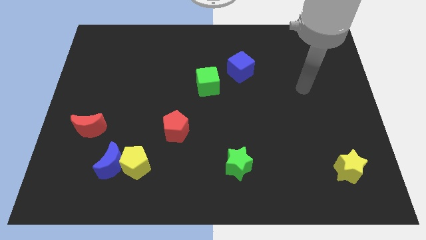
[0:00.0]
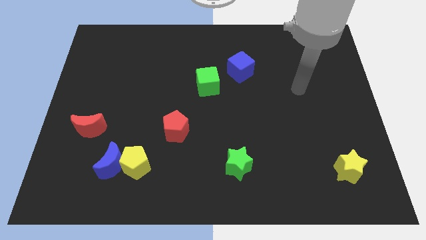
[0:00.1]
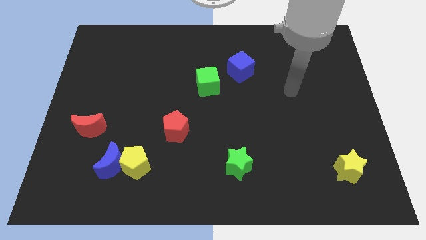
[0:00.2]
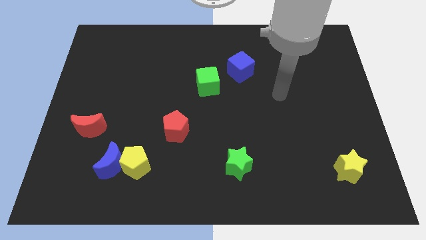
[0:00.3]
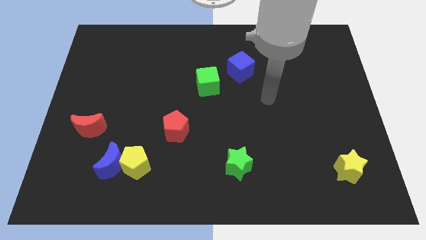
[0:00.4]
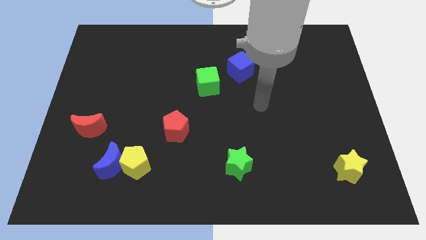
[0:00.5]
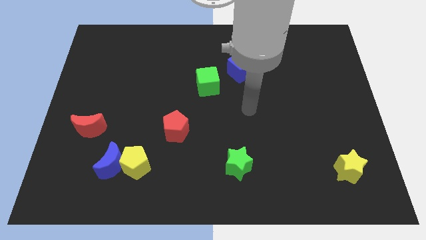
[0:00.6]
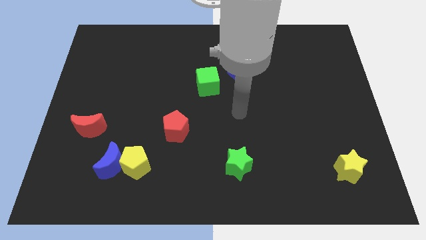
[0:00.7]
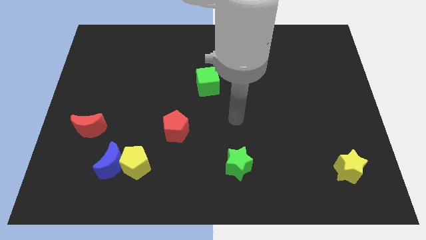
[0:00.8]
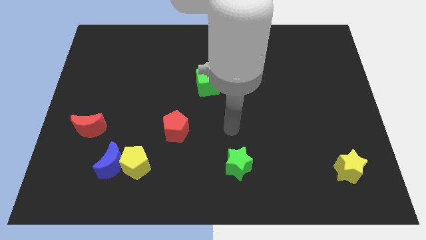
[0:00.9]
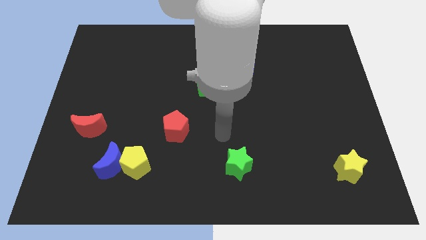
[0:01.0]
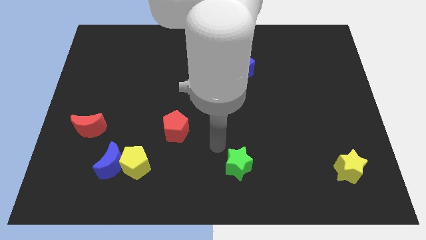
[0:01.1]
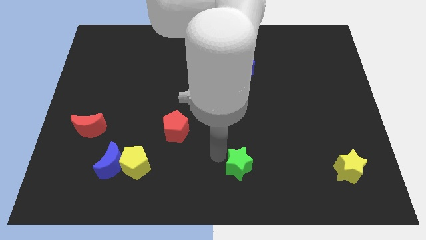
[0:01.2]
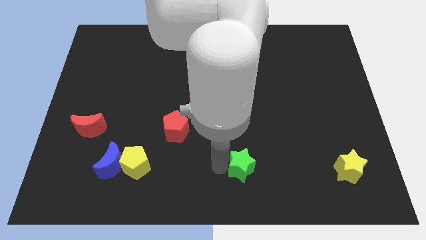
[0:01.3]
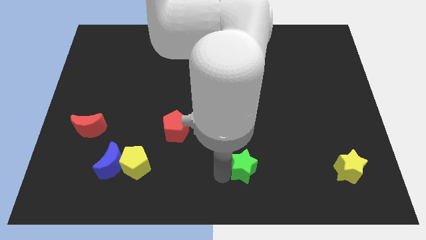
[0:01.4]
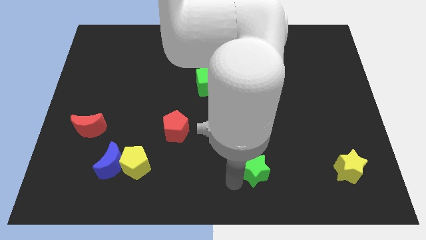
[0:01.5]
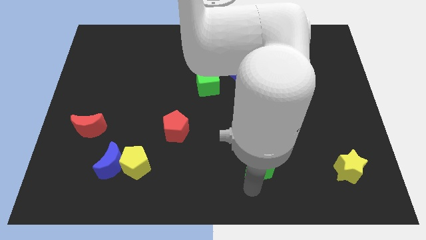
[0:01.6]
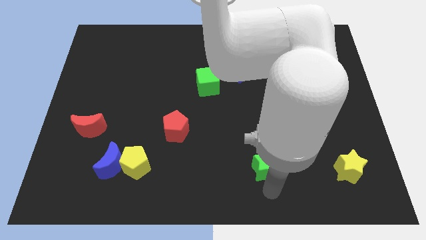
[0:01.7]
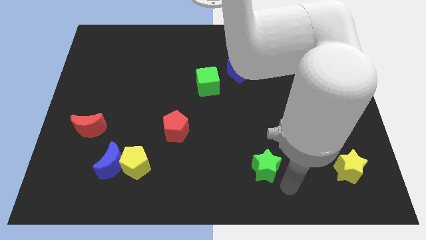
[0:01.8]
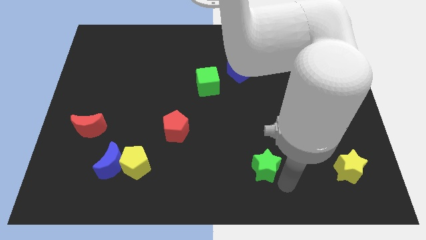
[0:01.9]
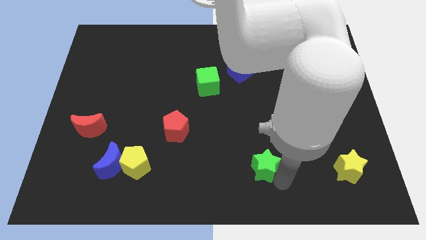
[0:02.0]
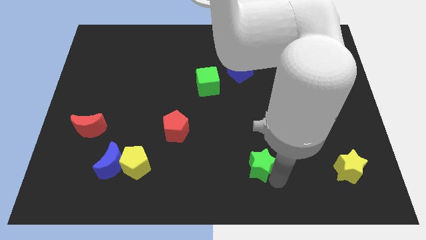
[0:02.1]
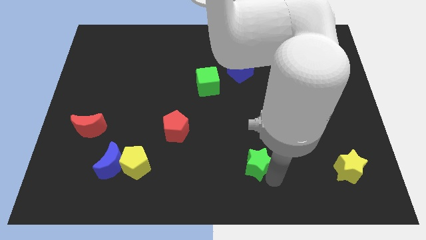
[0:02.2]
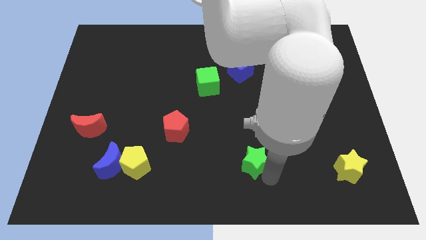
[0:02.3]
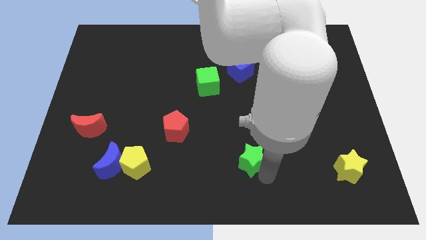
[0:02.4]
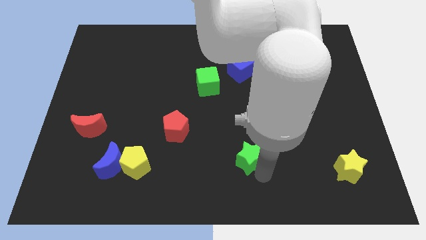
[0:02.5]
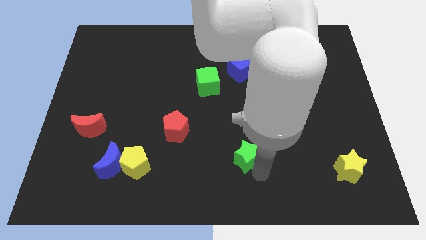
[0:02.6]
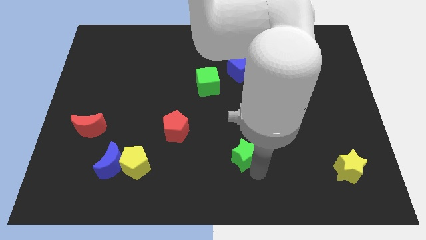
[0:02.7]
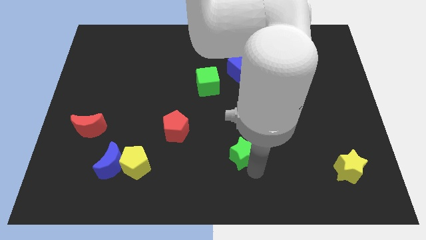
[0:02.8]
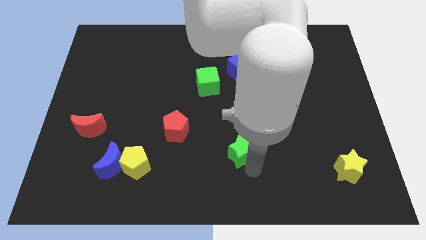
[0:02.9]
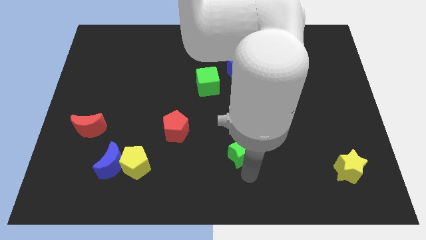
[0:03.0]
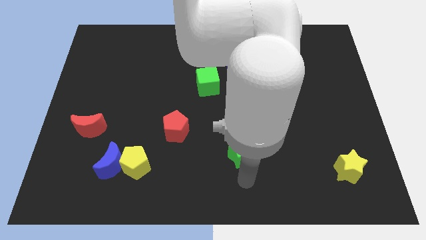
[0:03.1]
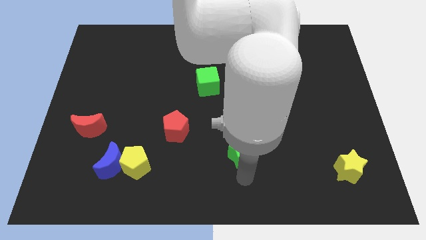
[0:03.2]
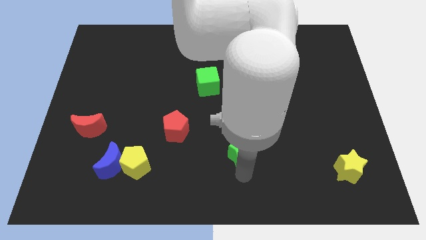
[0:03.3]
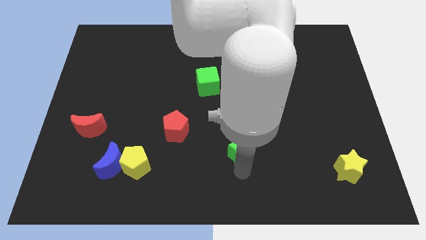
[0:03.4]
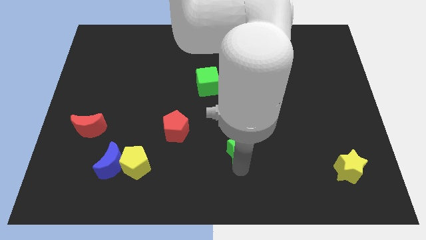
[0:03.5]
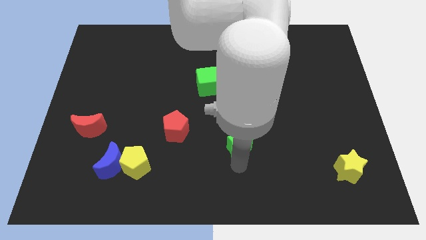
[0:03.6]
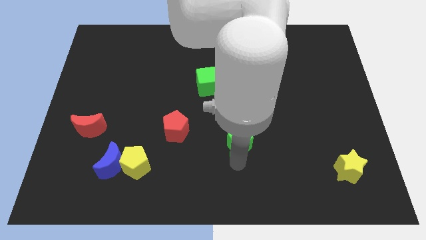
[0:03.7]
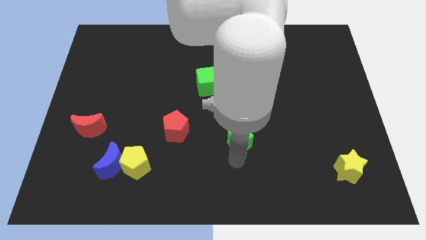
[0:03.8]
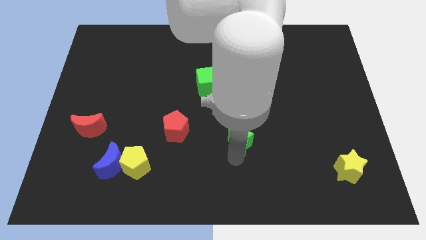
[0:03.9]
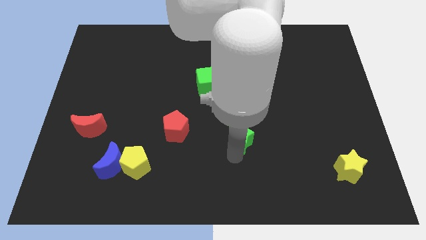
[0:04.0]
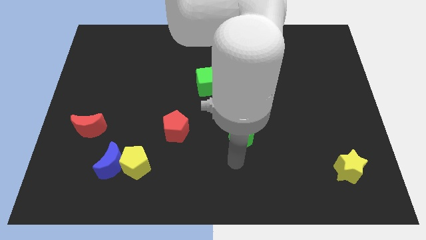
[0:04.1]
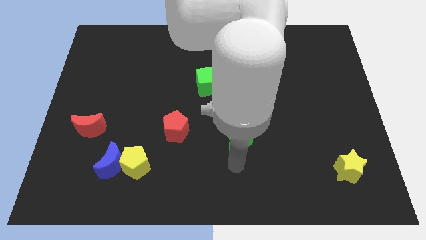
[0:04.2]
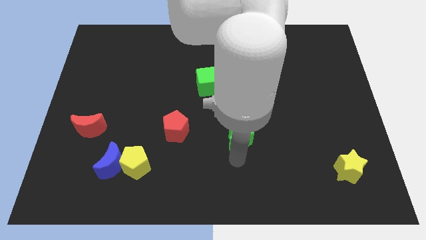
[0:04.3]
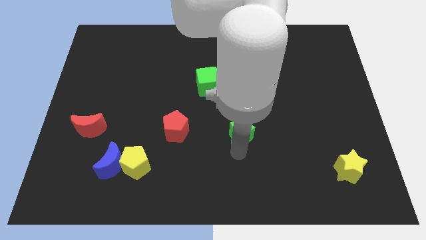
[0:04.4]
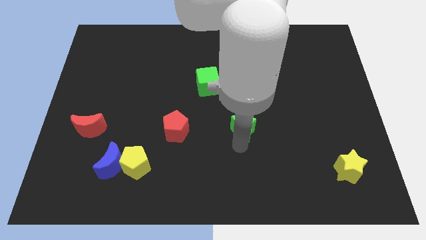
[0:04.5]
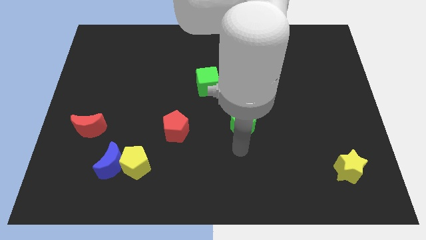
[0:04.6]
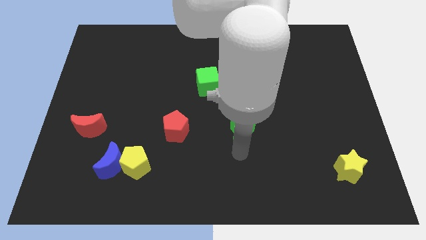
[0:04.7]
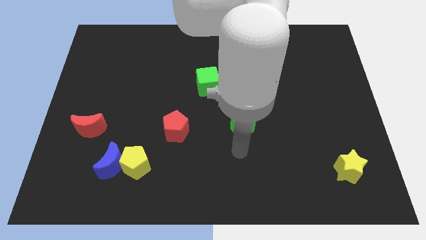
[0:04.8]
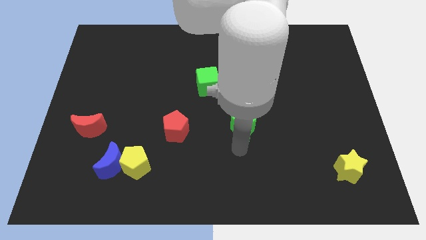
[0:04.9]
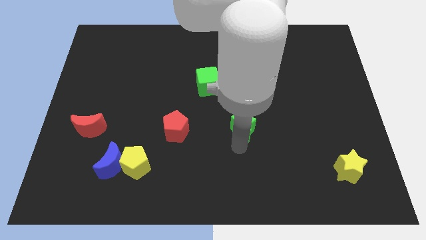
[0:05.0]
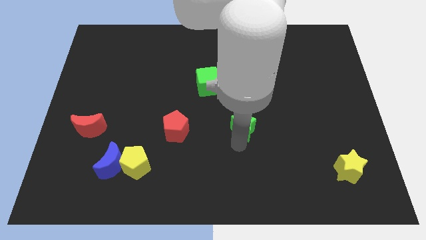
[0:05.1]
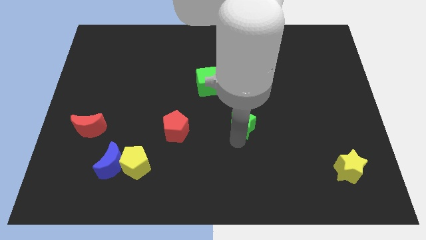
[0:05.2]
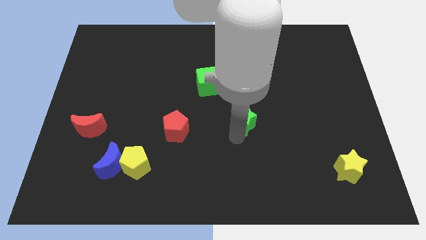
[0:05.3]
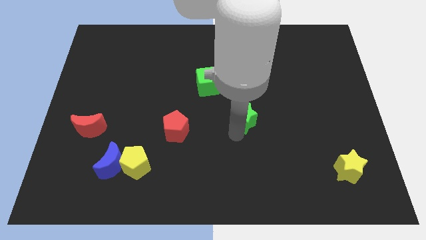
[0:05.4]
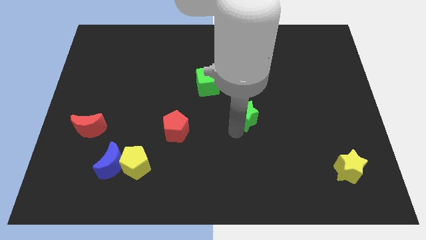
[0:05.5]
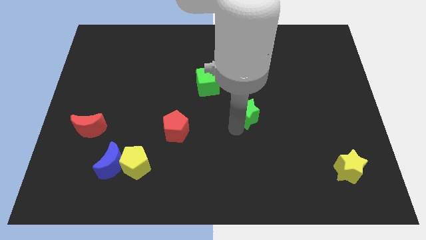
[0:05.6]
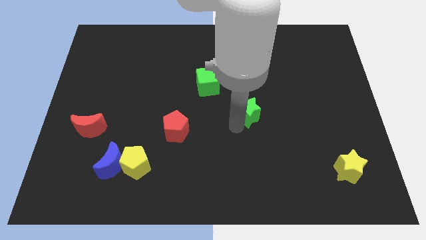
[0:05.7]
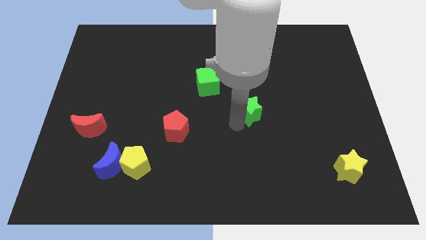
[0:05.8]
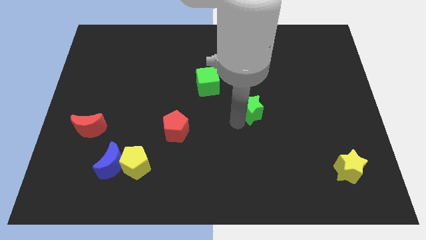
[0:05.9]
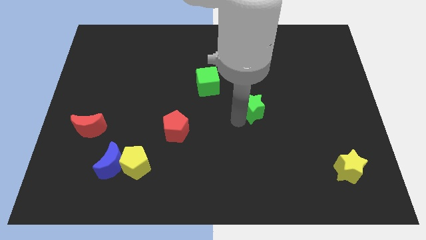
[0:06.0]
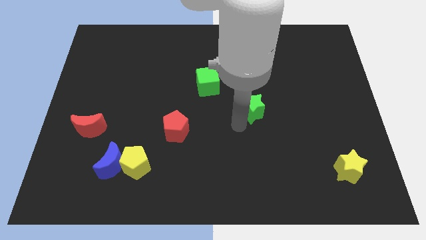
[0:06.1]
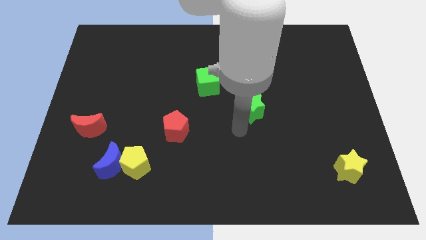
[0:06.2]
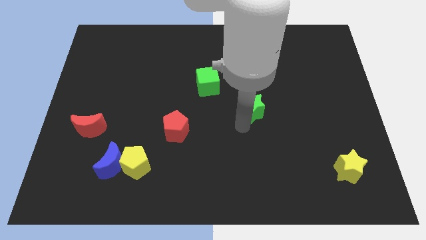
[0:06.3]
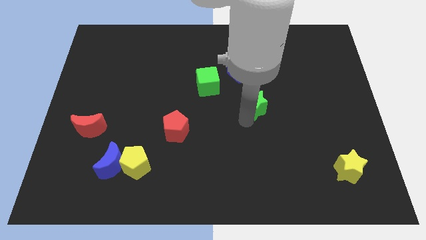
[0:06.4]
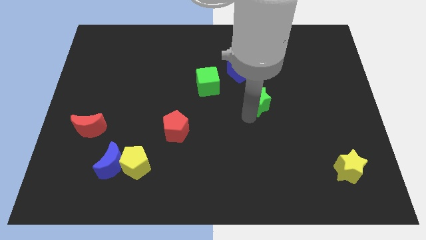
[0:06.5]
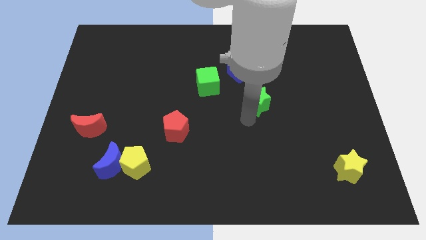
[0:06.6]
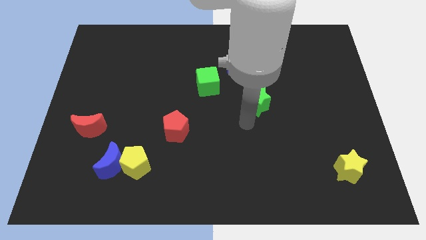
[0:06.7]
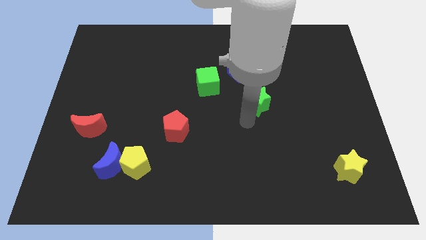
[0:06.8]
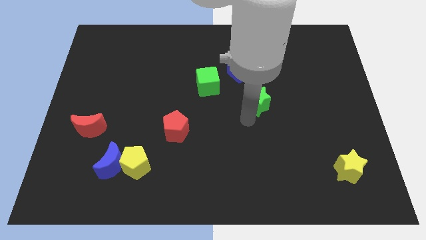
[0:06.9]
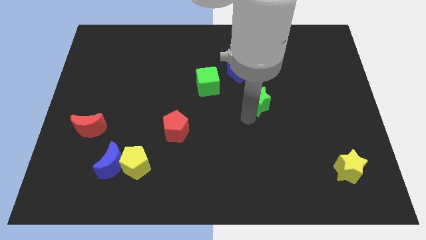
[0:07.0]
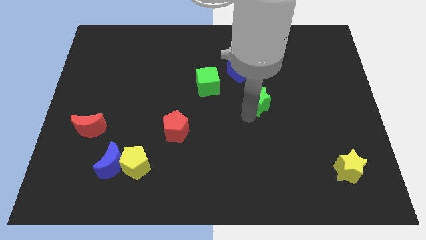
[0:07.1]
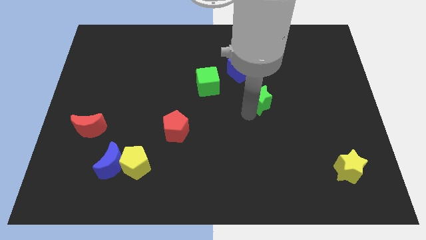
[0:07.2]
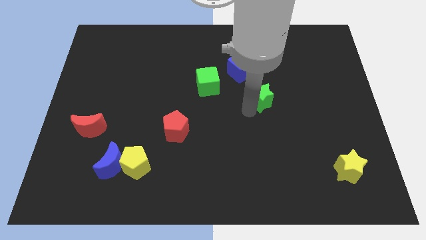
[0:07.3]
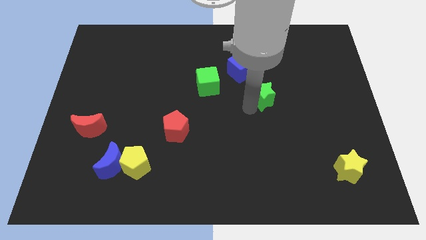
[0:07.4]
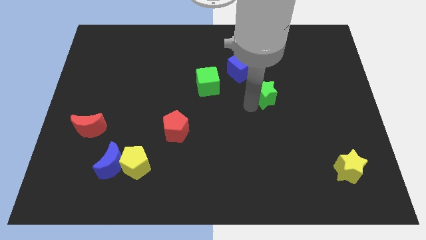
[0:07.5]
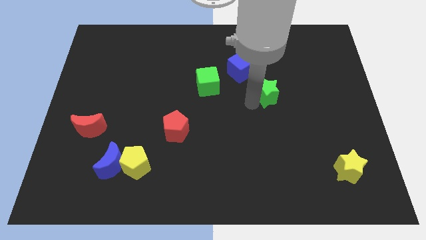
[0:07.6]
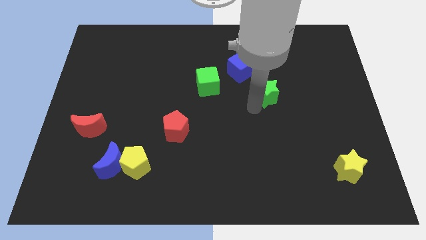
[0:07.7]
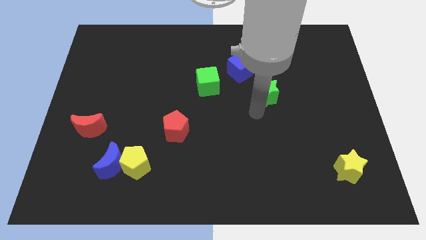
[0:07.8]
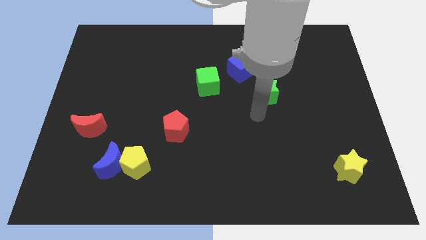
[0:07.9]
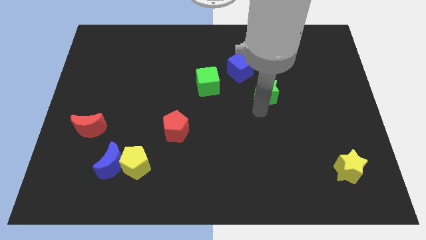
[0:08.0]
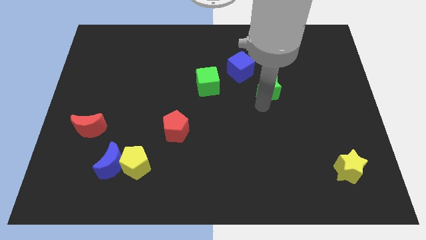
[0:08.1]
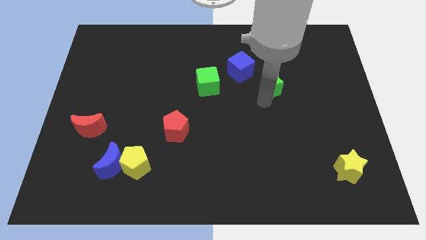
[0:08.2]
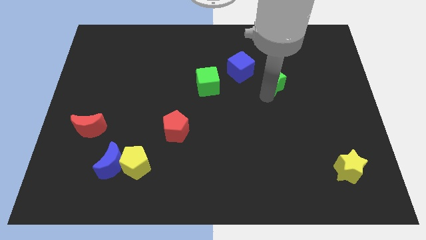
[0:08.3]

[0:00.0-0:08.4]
push the green star to the right side of the blue cube
